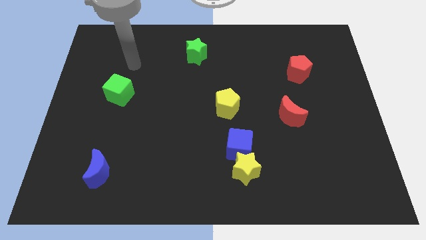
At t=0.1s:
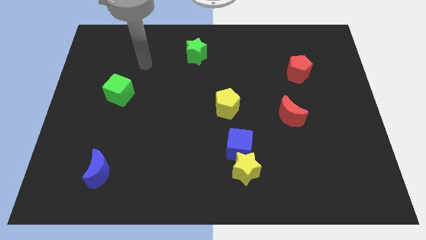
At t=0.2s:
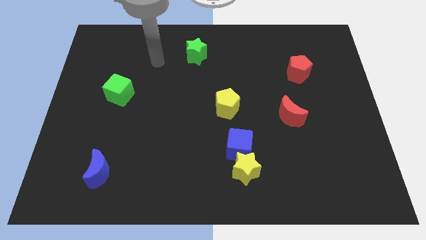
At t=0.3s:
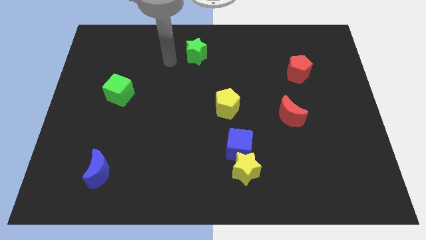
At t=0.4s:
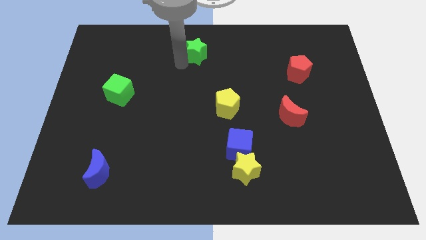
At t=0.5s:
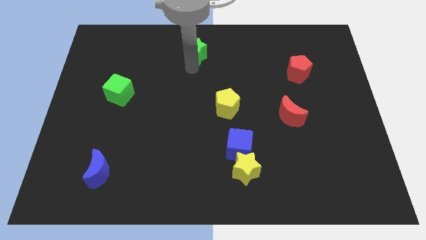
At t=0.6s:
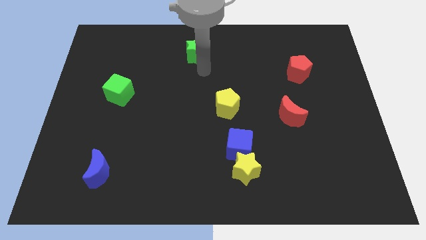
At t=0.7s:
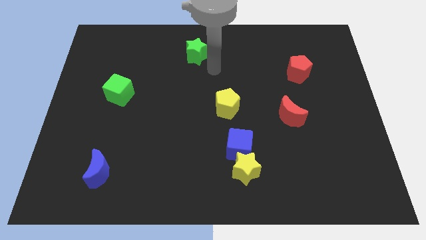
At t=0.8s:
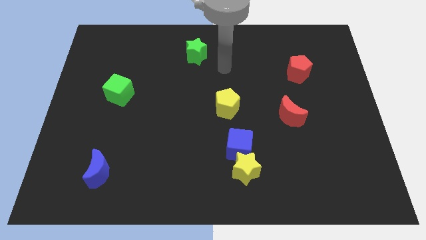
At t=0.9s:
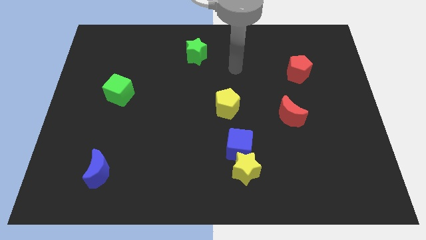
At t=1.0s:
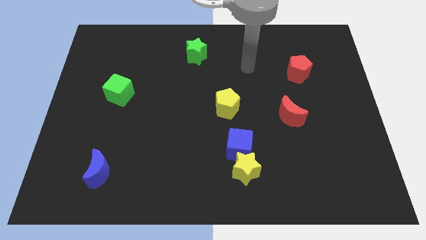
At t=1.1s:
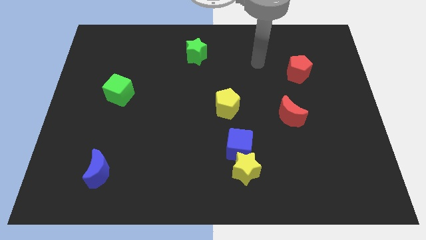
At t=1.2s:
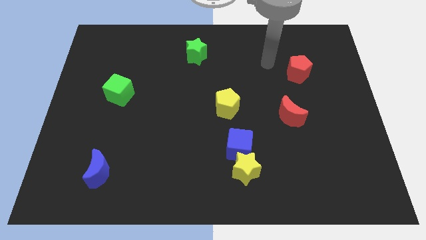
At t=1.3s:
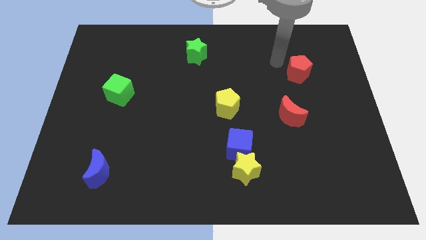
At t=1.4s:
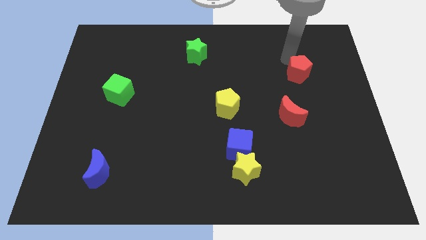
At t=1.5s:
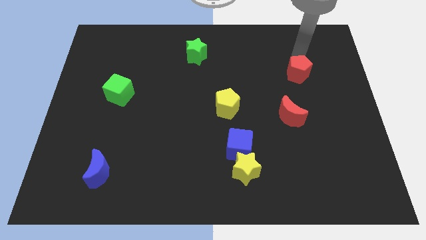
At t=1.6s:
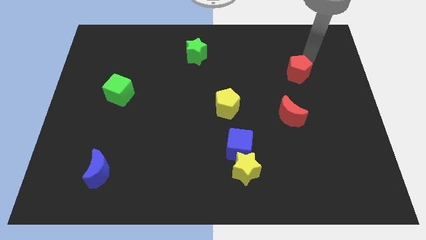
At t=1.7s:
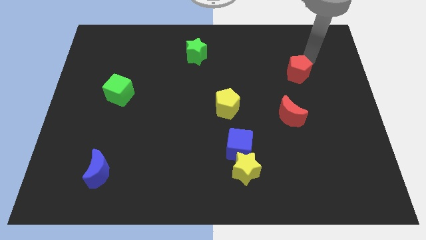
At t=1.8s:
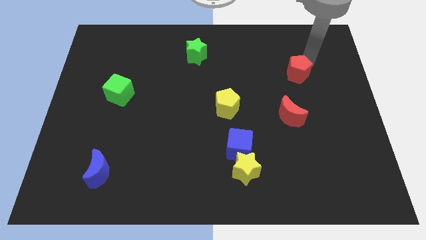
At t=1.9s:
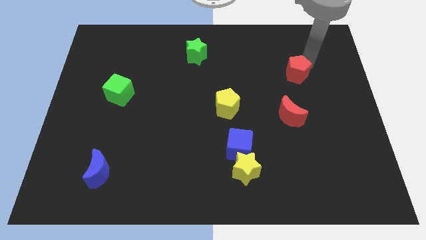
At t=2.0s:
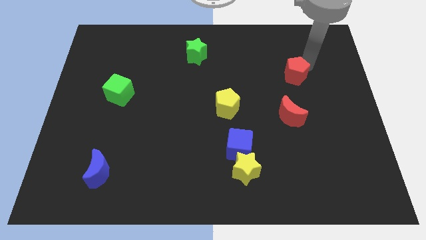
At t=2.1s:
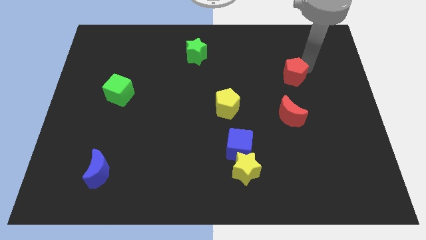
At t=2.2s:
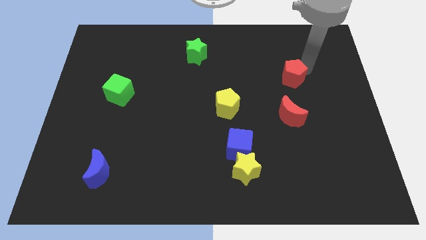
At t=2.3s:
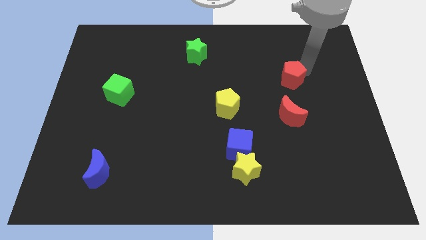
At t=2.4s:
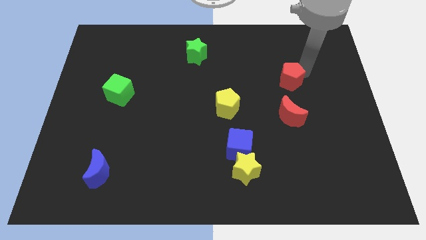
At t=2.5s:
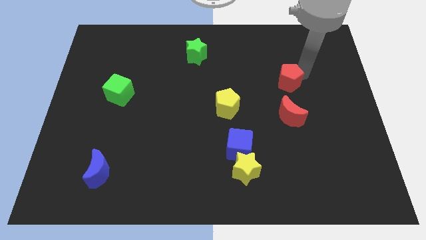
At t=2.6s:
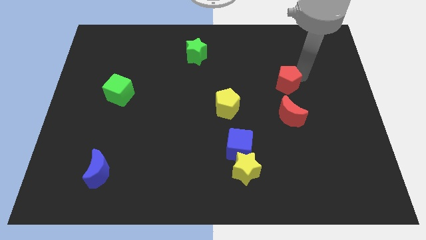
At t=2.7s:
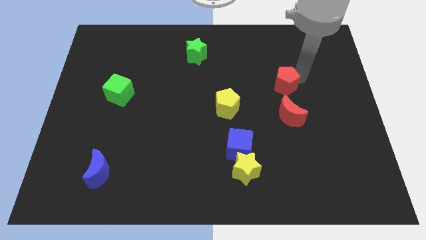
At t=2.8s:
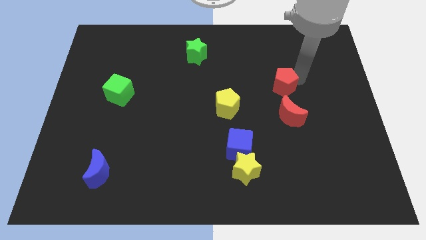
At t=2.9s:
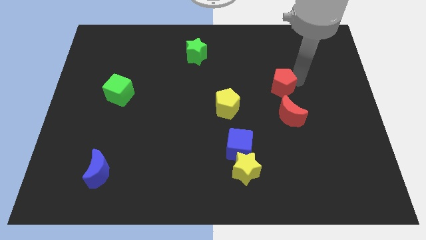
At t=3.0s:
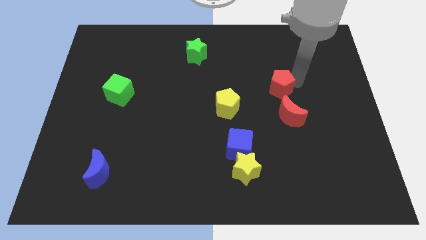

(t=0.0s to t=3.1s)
slightly slide the red pentagon down and to the left

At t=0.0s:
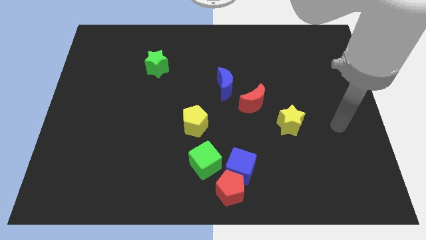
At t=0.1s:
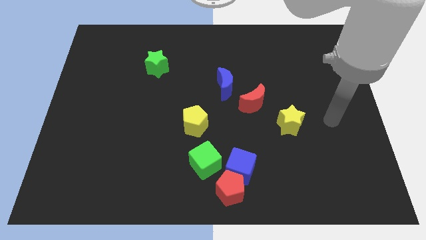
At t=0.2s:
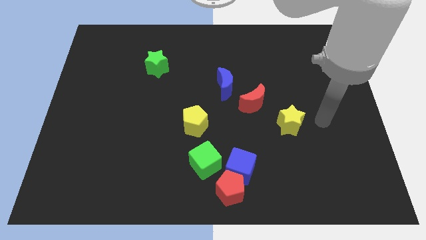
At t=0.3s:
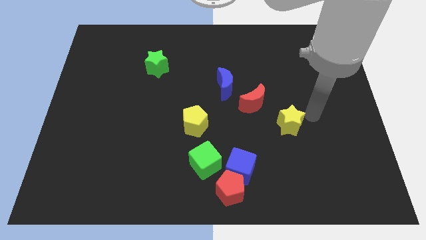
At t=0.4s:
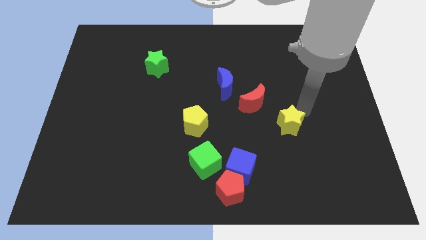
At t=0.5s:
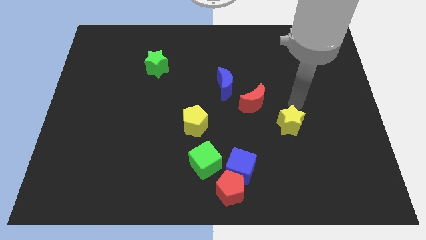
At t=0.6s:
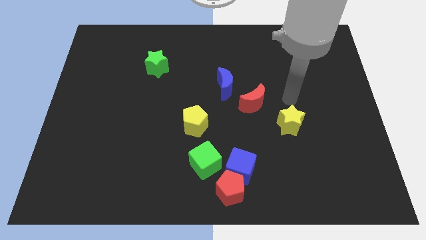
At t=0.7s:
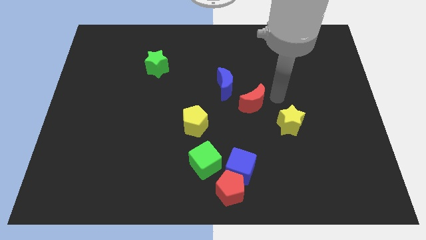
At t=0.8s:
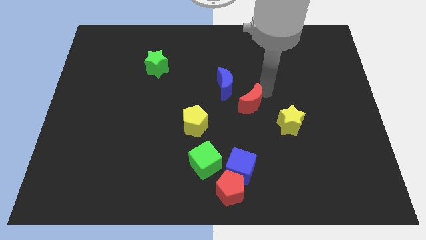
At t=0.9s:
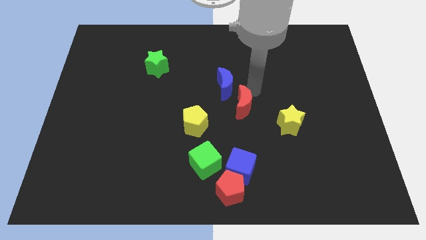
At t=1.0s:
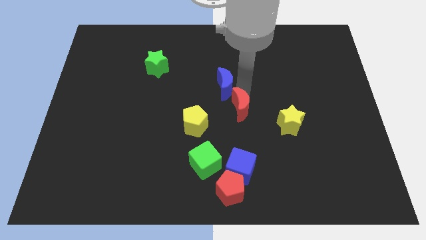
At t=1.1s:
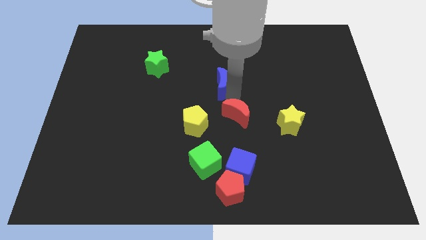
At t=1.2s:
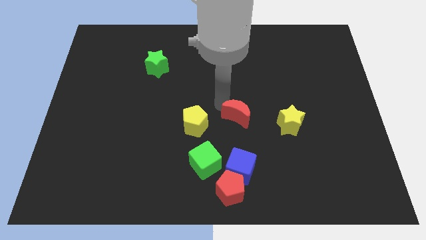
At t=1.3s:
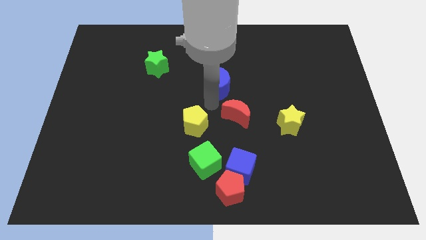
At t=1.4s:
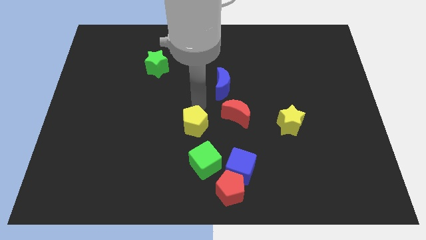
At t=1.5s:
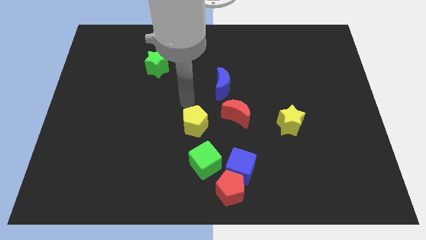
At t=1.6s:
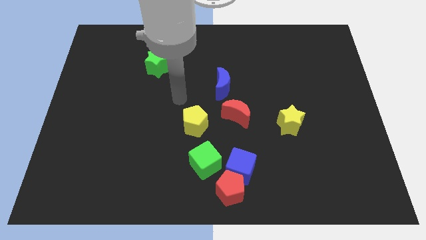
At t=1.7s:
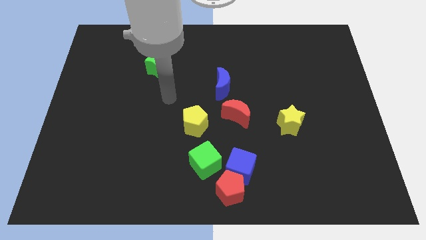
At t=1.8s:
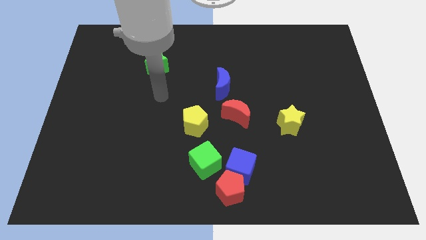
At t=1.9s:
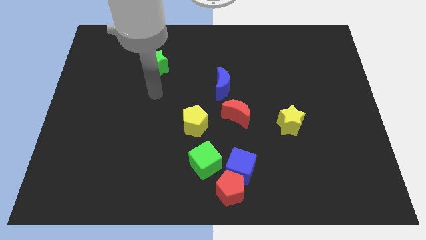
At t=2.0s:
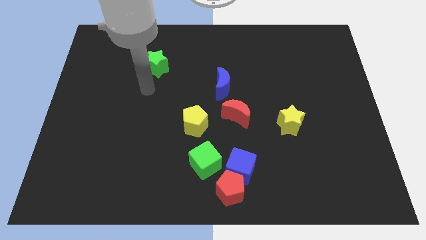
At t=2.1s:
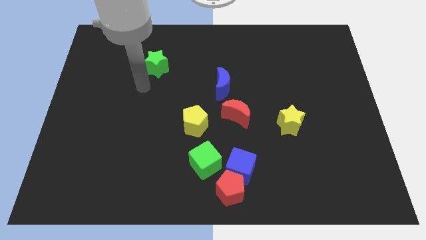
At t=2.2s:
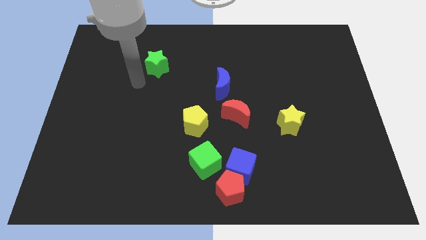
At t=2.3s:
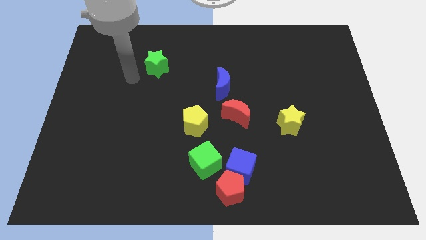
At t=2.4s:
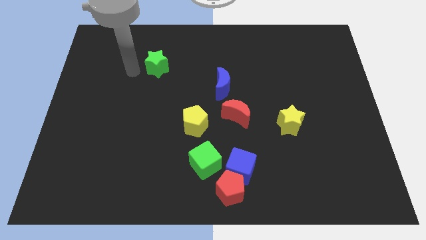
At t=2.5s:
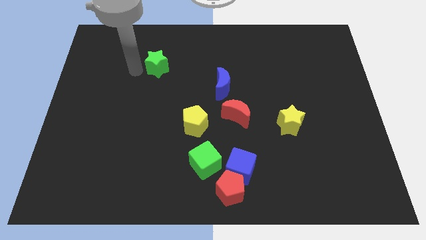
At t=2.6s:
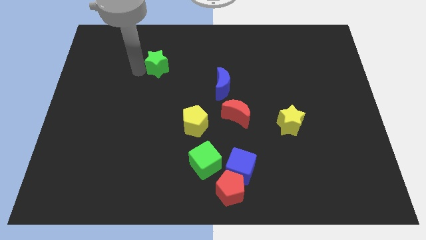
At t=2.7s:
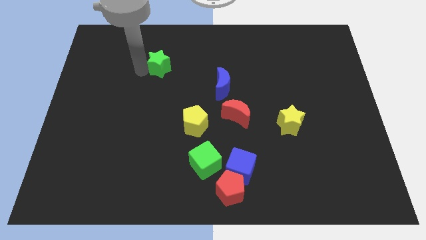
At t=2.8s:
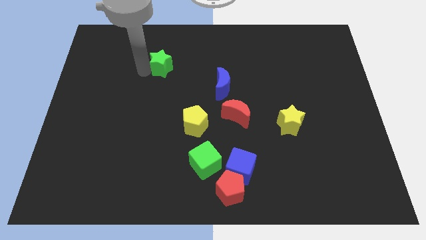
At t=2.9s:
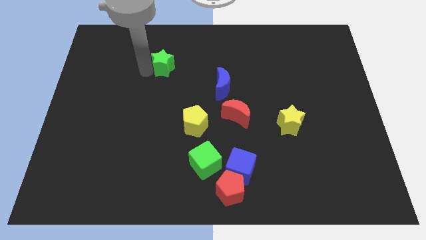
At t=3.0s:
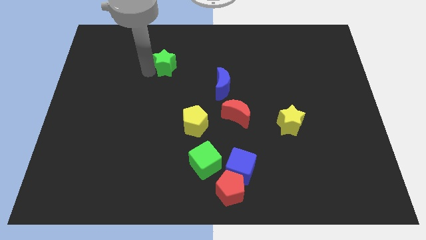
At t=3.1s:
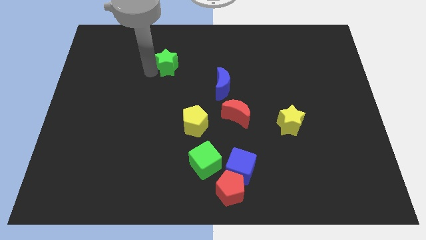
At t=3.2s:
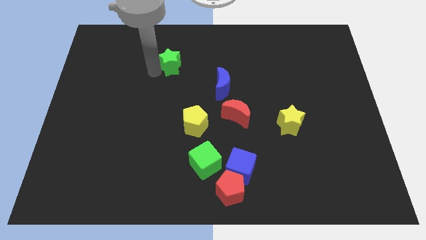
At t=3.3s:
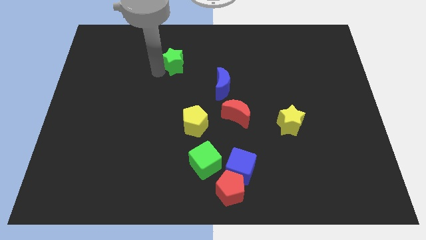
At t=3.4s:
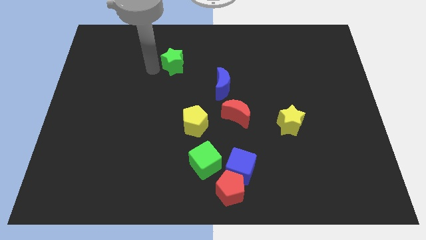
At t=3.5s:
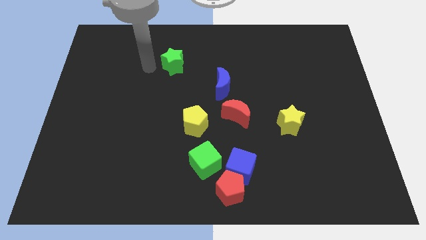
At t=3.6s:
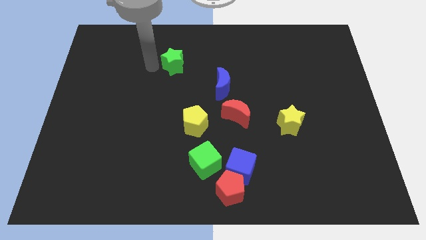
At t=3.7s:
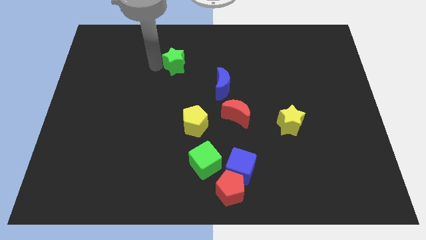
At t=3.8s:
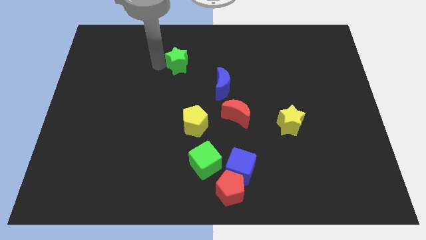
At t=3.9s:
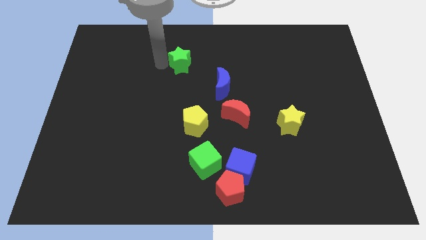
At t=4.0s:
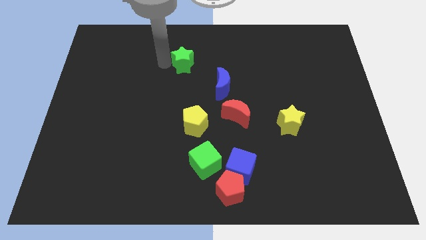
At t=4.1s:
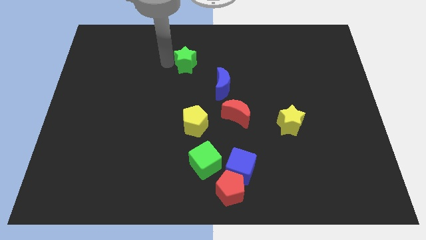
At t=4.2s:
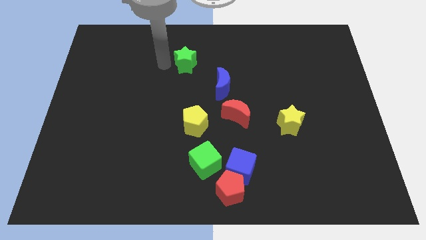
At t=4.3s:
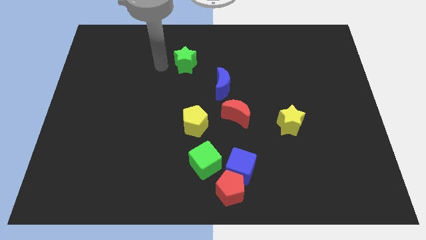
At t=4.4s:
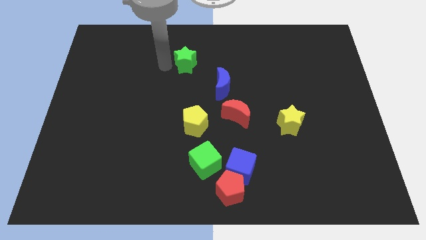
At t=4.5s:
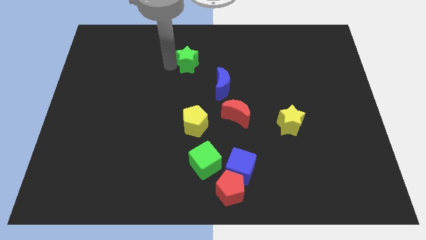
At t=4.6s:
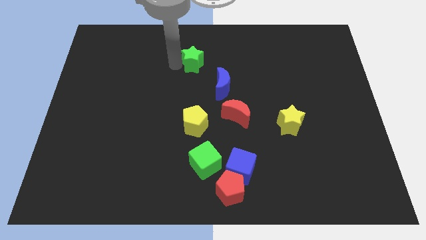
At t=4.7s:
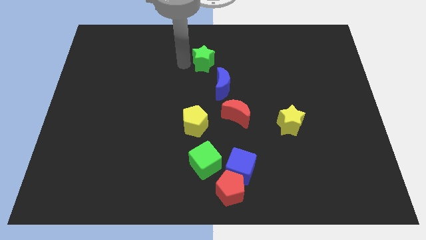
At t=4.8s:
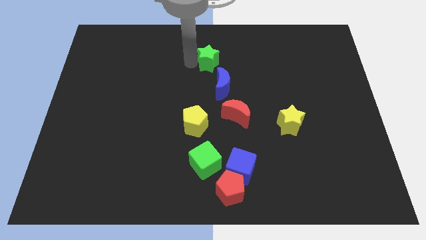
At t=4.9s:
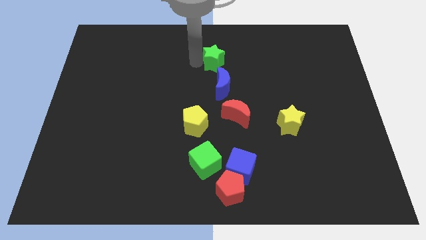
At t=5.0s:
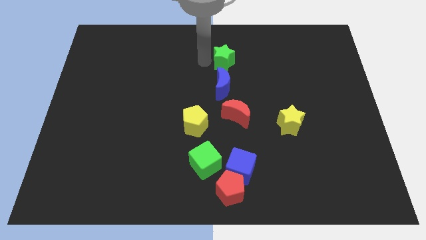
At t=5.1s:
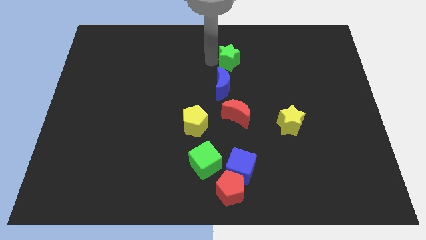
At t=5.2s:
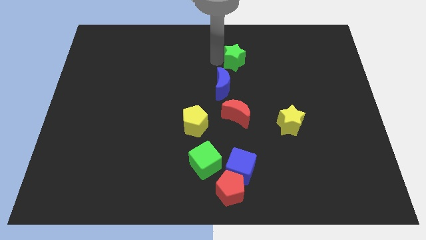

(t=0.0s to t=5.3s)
move the green star to the right

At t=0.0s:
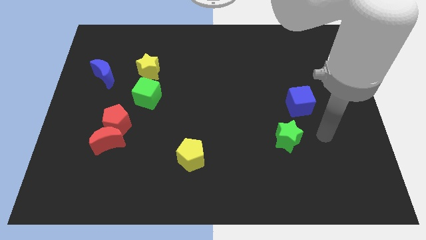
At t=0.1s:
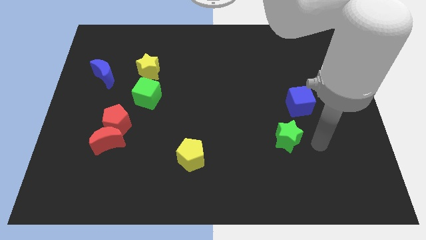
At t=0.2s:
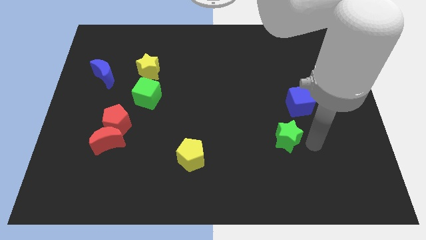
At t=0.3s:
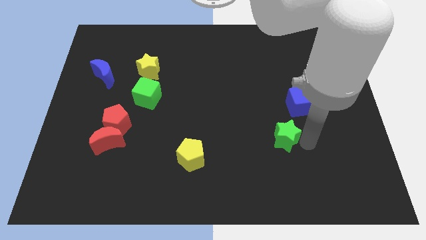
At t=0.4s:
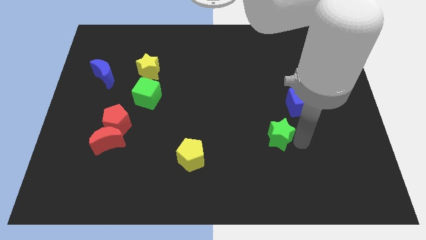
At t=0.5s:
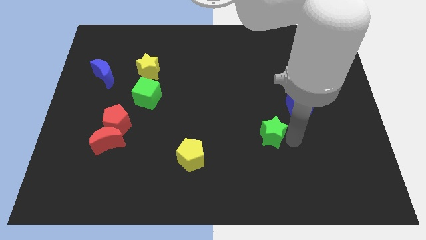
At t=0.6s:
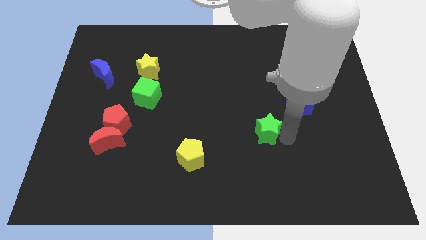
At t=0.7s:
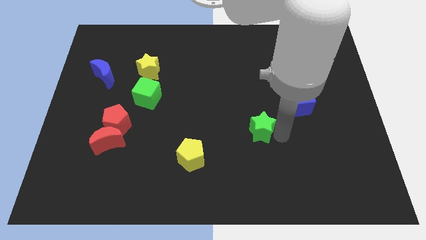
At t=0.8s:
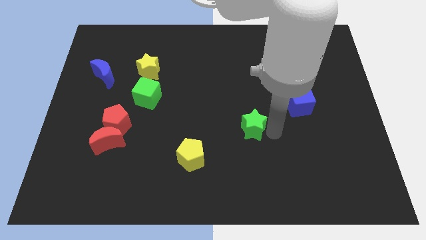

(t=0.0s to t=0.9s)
slide the green star left somewhat
